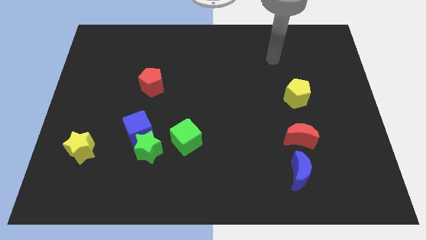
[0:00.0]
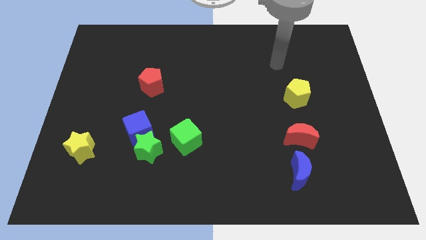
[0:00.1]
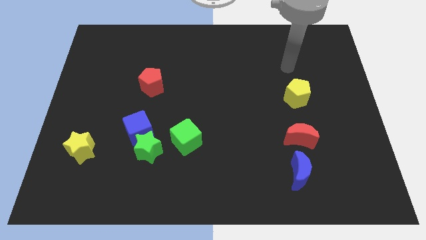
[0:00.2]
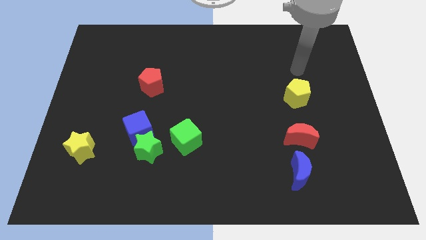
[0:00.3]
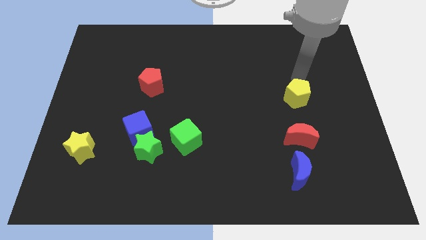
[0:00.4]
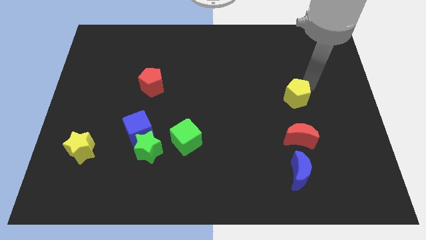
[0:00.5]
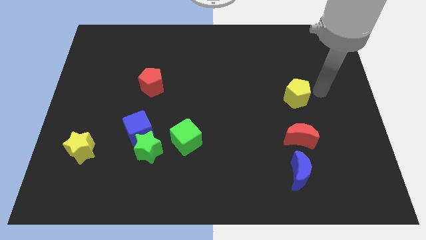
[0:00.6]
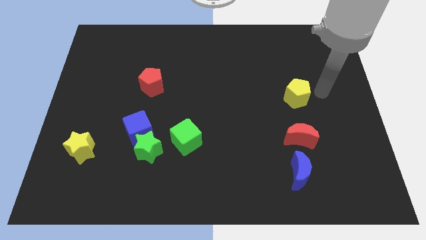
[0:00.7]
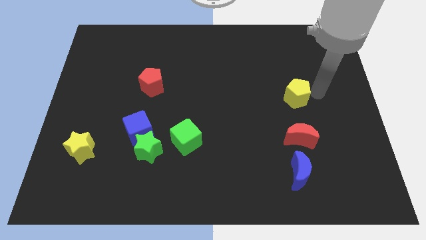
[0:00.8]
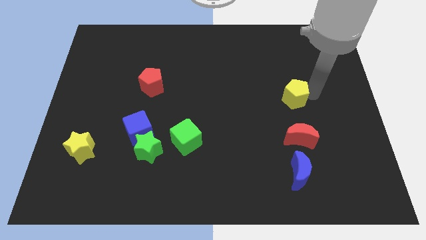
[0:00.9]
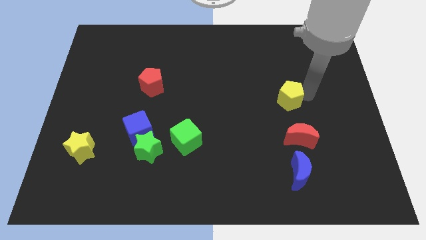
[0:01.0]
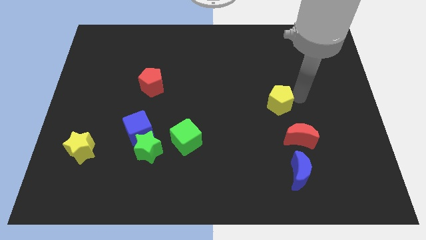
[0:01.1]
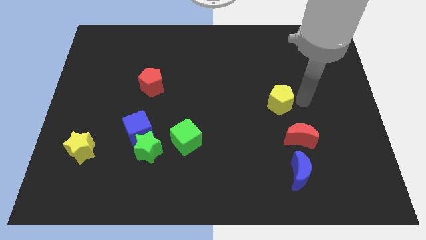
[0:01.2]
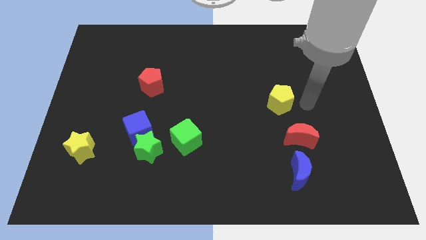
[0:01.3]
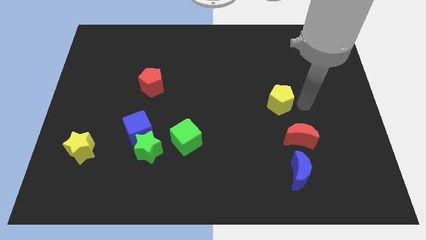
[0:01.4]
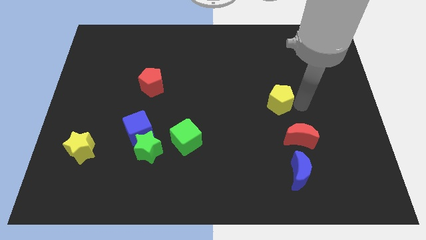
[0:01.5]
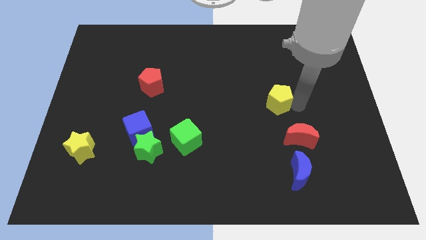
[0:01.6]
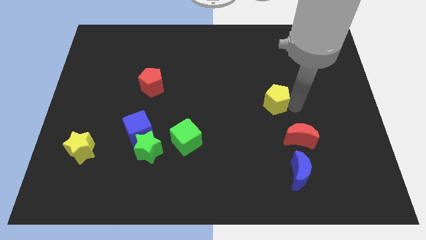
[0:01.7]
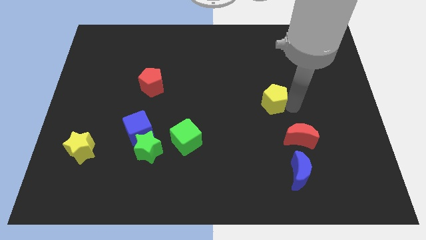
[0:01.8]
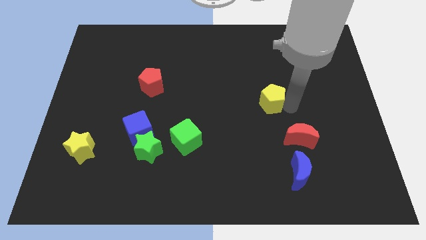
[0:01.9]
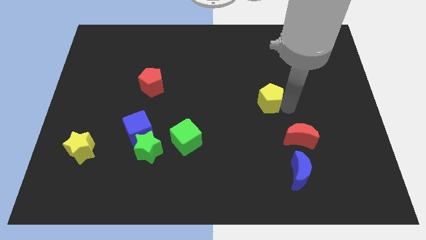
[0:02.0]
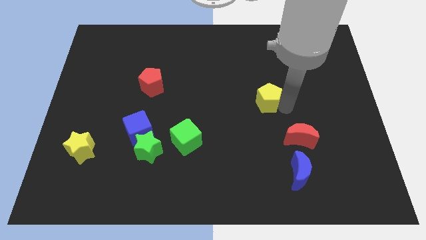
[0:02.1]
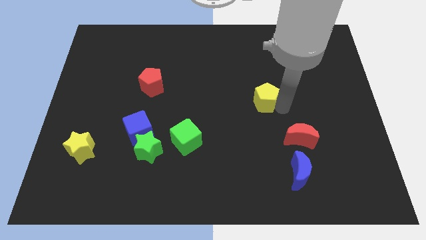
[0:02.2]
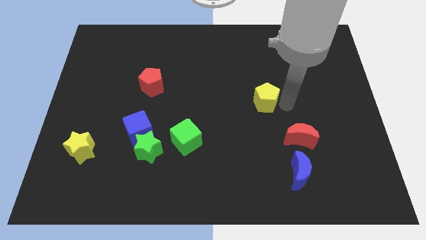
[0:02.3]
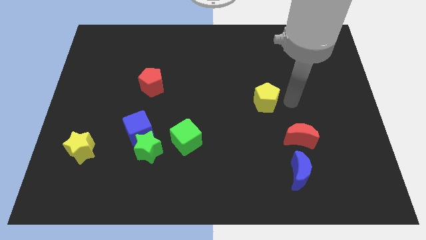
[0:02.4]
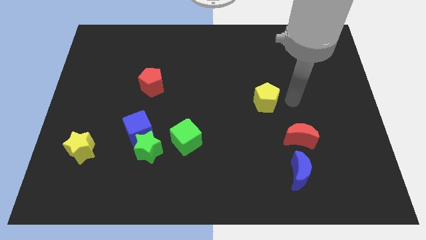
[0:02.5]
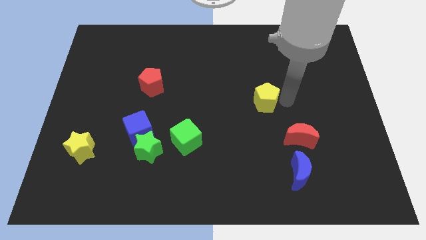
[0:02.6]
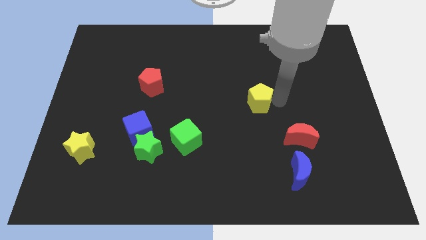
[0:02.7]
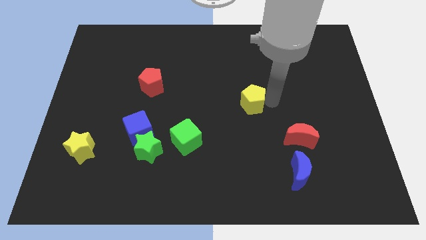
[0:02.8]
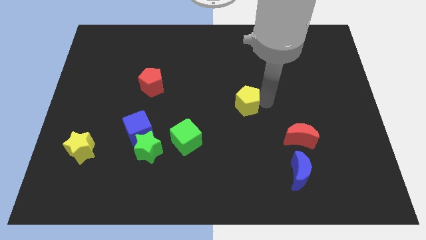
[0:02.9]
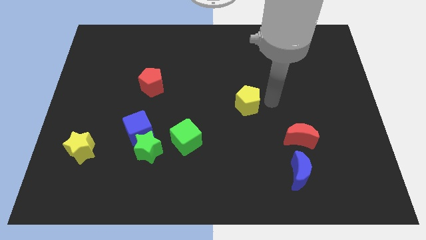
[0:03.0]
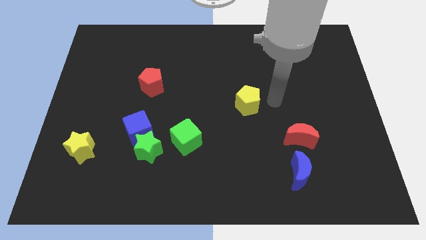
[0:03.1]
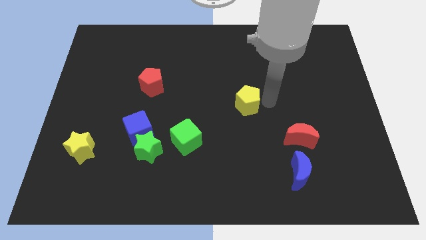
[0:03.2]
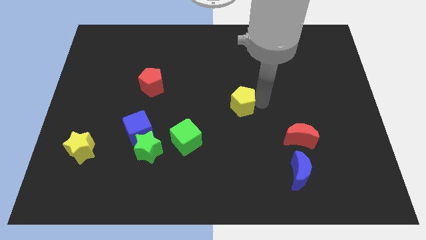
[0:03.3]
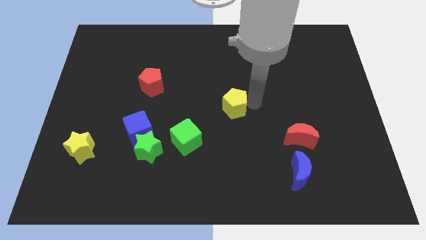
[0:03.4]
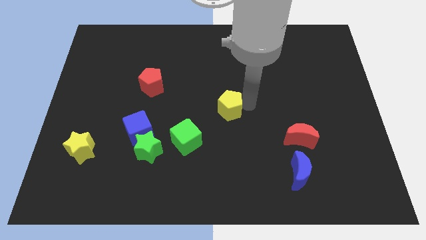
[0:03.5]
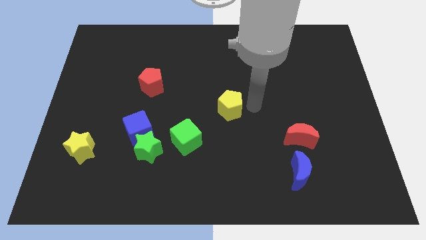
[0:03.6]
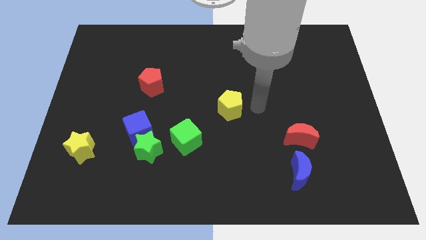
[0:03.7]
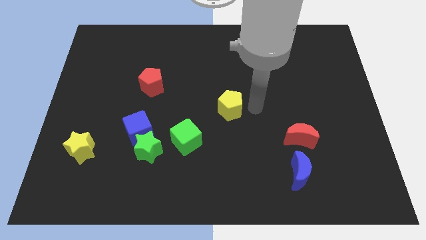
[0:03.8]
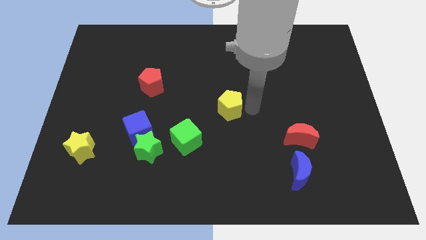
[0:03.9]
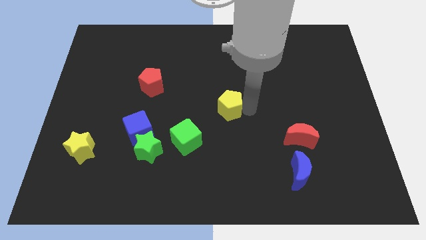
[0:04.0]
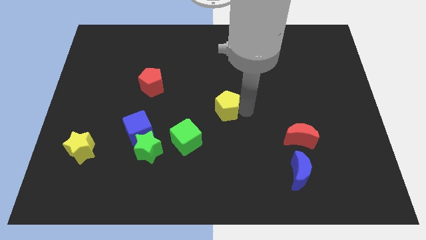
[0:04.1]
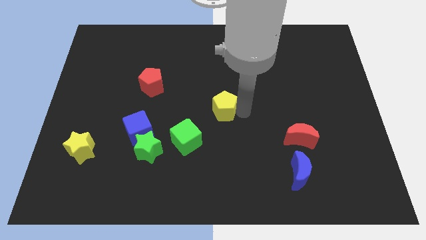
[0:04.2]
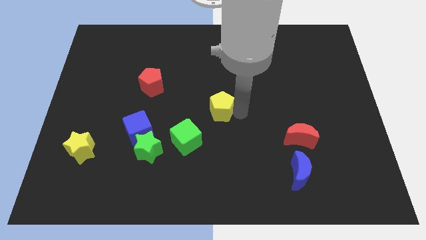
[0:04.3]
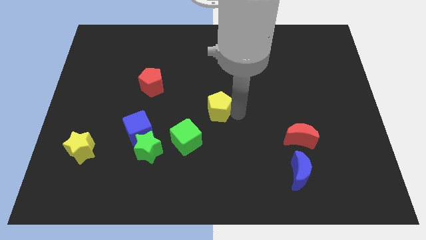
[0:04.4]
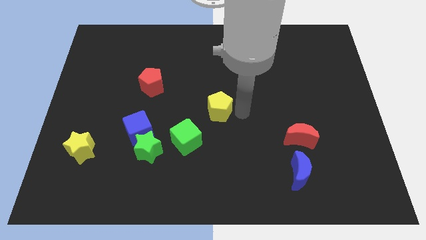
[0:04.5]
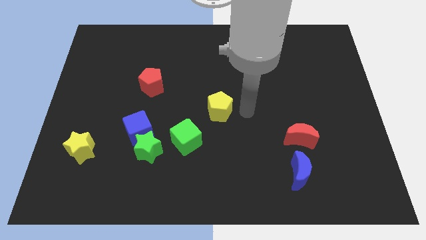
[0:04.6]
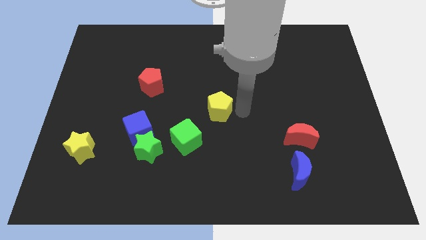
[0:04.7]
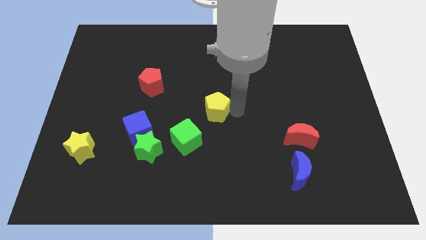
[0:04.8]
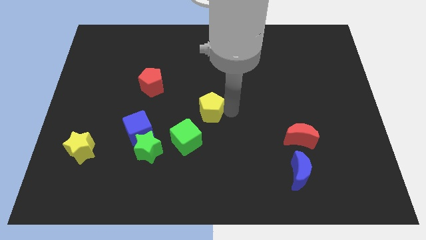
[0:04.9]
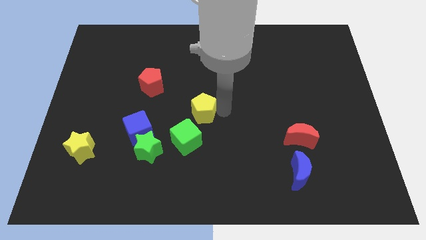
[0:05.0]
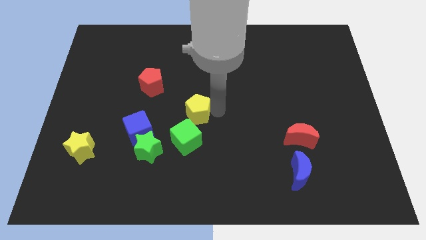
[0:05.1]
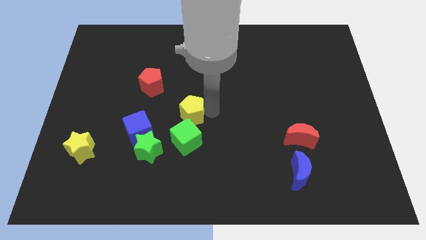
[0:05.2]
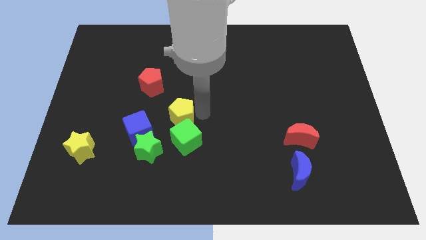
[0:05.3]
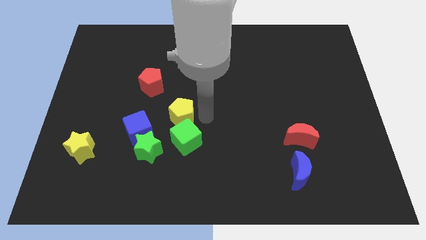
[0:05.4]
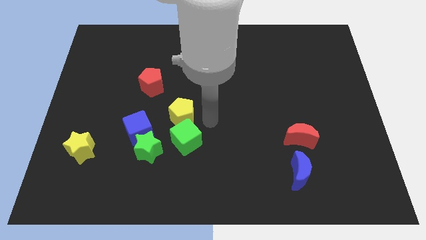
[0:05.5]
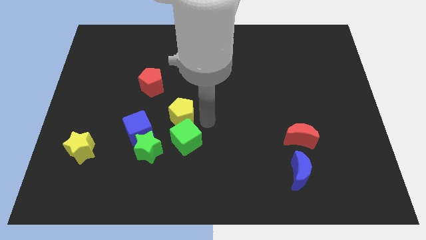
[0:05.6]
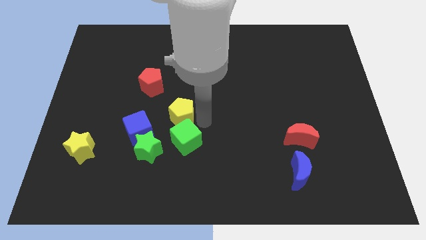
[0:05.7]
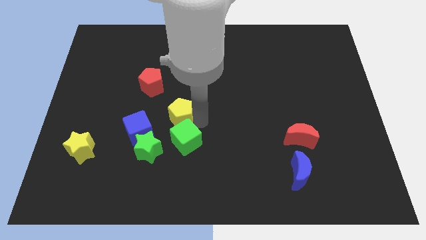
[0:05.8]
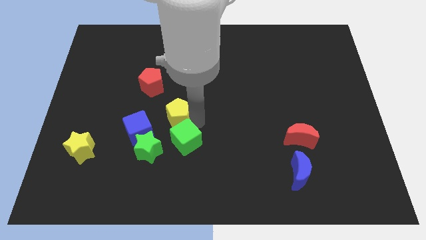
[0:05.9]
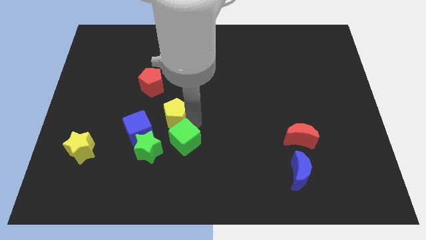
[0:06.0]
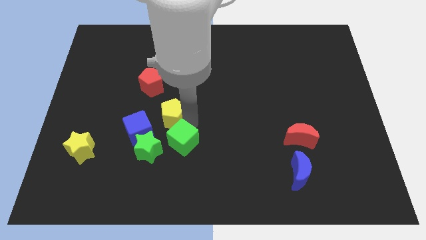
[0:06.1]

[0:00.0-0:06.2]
slide the yellow pentagon above the green star

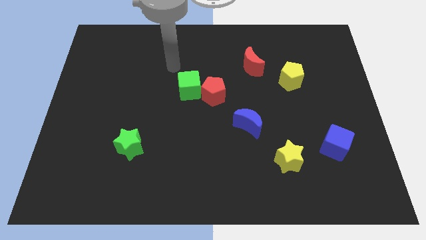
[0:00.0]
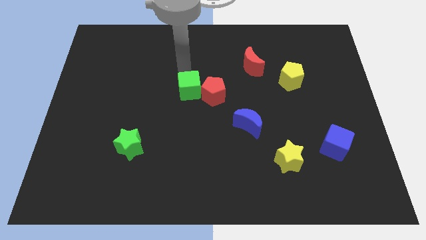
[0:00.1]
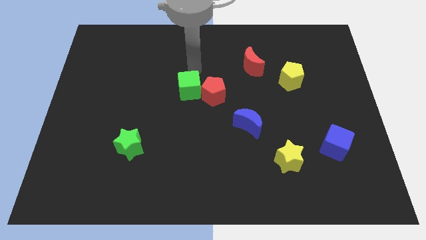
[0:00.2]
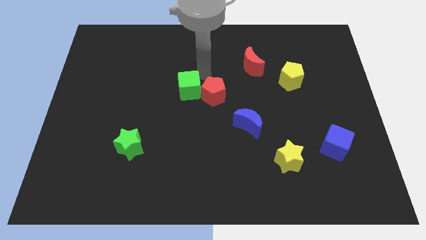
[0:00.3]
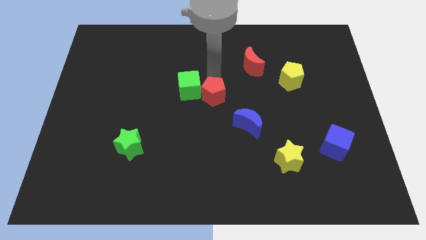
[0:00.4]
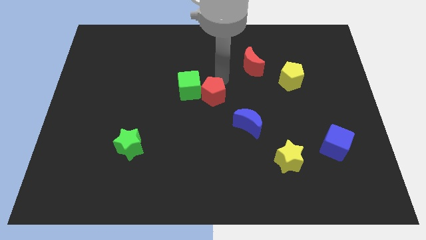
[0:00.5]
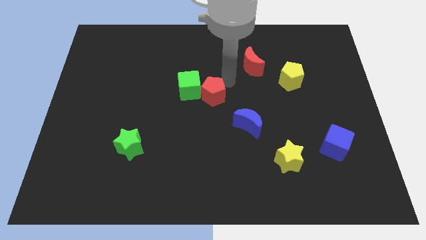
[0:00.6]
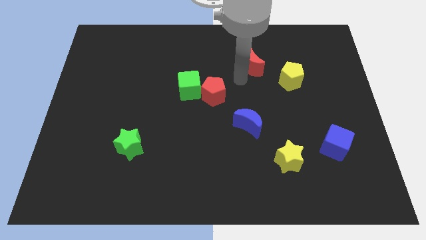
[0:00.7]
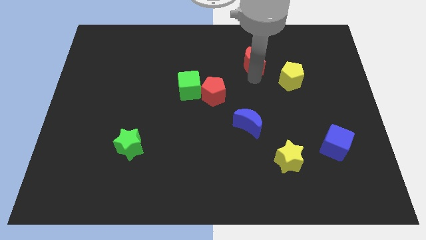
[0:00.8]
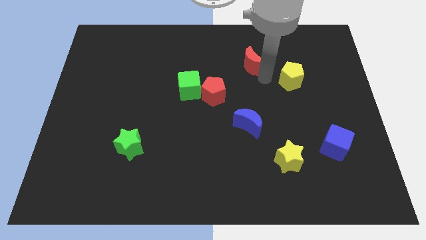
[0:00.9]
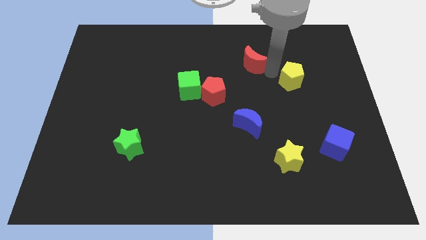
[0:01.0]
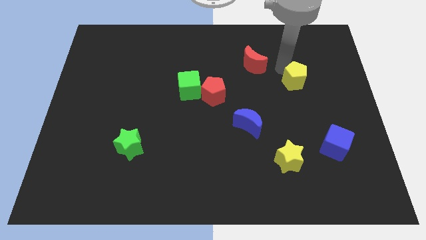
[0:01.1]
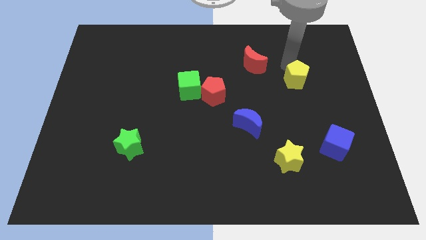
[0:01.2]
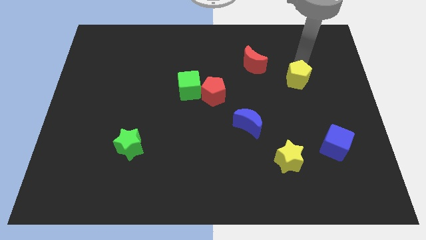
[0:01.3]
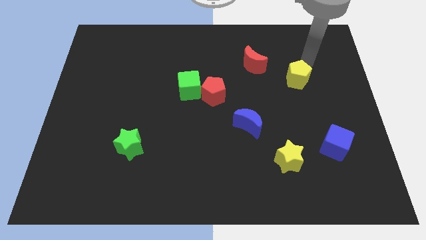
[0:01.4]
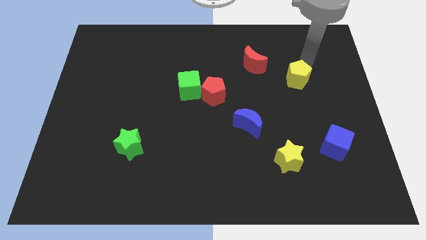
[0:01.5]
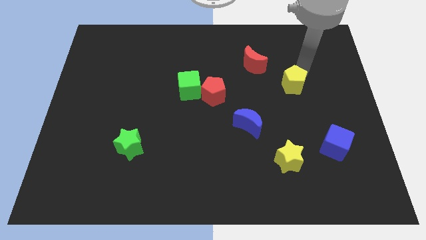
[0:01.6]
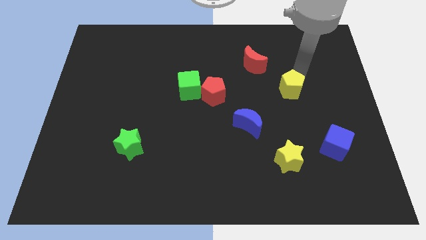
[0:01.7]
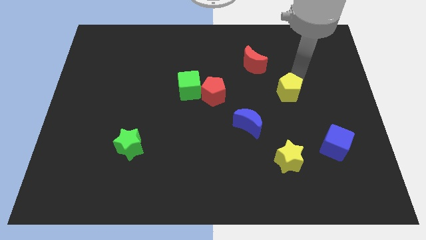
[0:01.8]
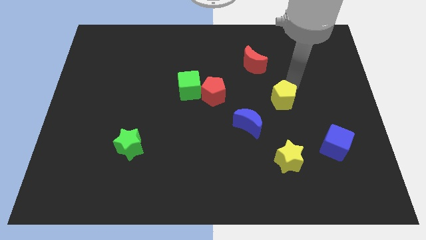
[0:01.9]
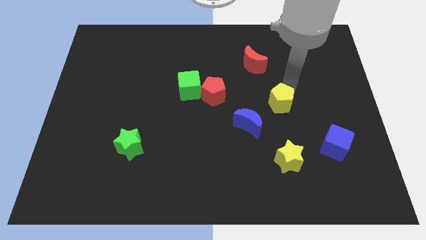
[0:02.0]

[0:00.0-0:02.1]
slide the yellow pentagon to the top of the yellow star
